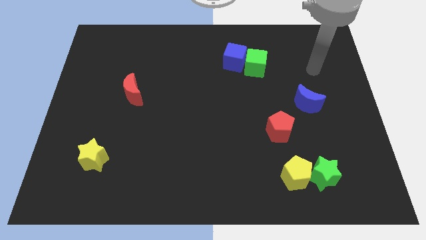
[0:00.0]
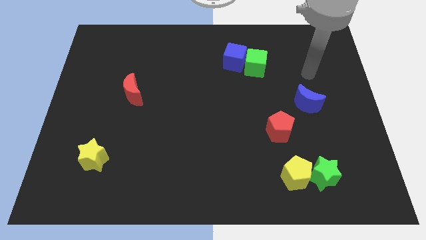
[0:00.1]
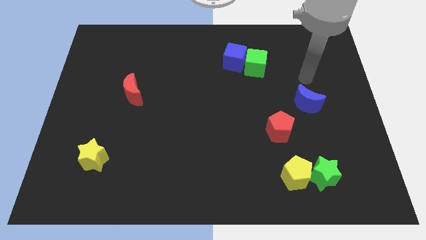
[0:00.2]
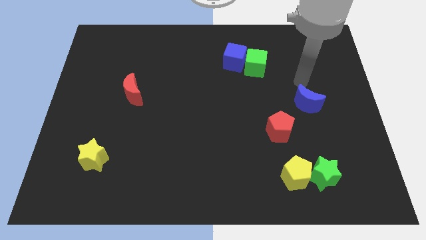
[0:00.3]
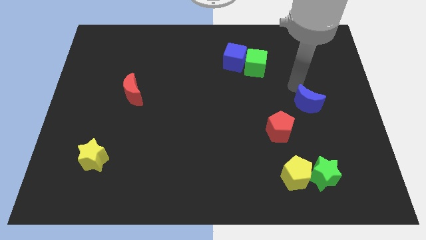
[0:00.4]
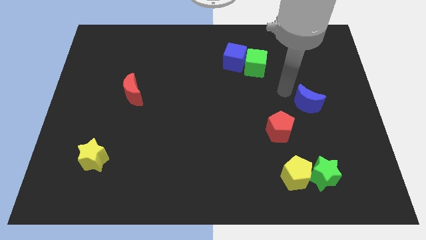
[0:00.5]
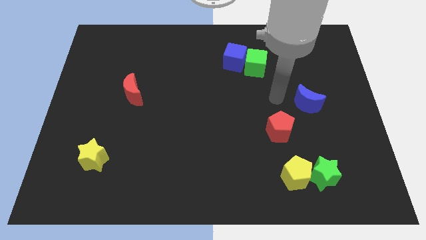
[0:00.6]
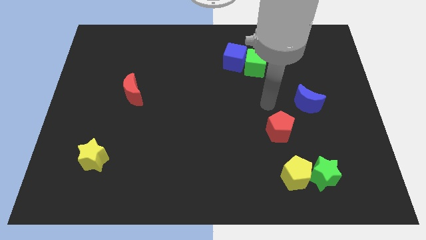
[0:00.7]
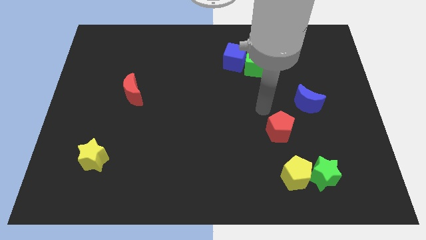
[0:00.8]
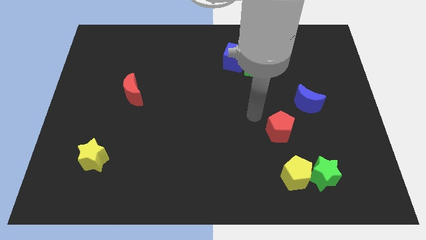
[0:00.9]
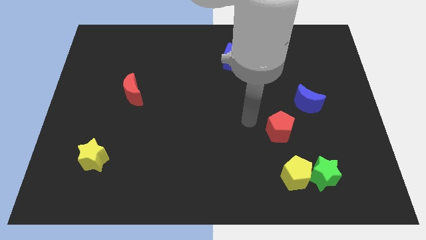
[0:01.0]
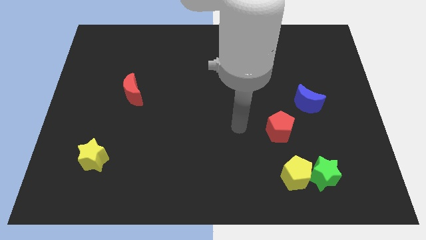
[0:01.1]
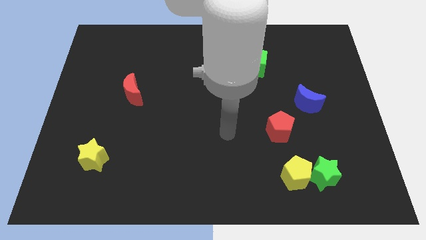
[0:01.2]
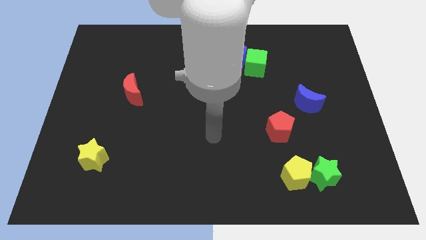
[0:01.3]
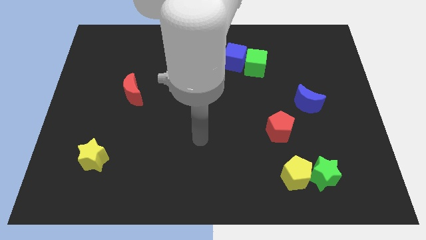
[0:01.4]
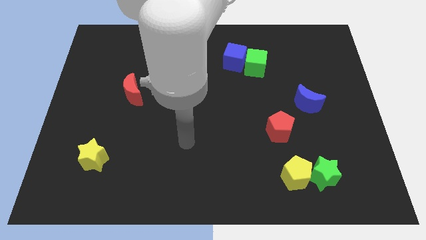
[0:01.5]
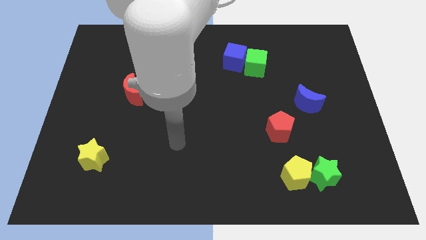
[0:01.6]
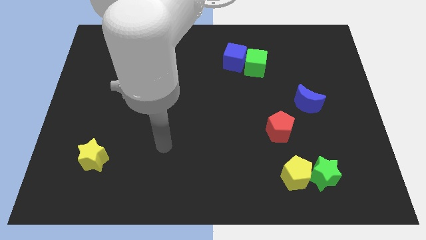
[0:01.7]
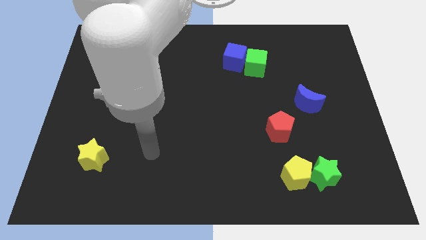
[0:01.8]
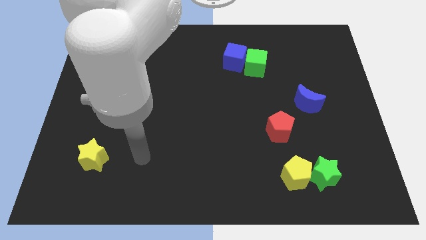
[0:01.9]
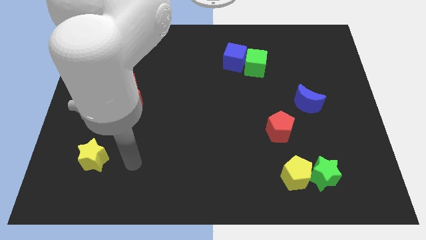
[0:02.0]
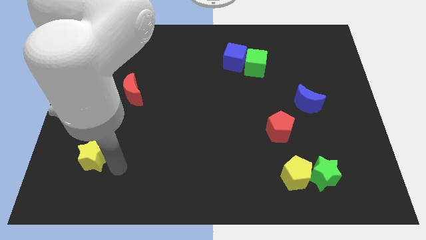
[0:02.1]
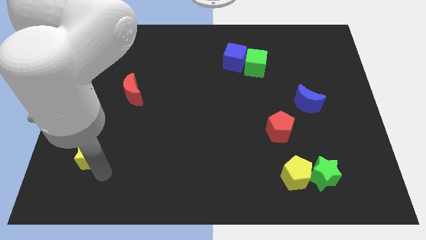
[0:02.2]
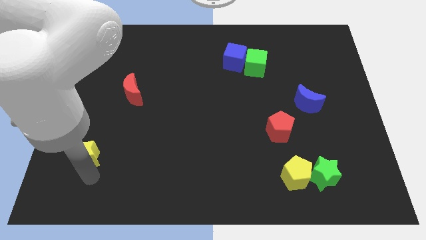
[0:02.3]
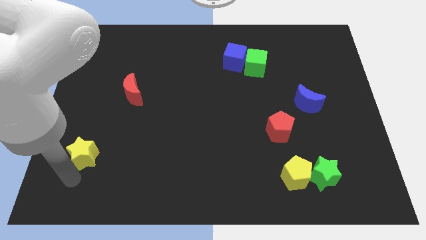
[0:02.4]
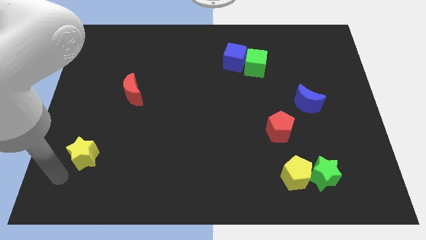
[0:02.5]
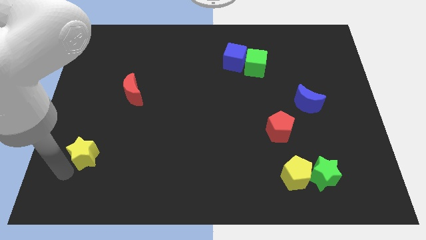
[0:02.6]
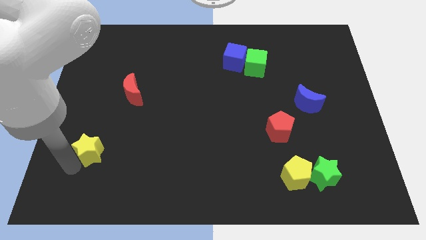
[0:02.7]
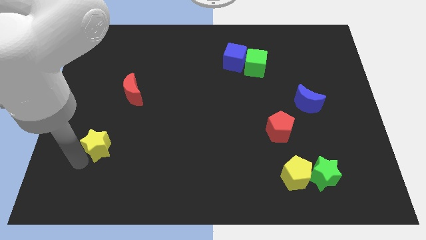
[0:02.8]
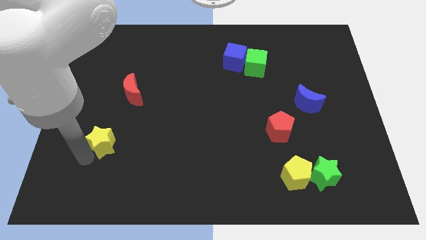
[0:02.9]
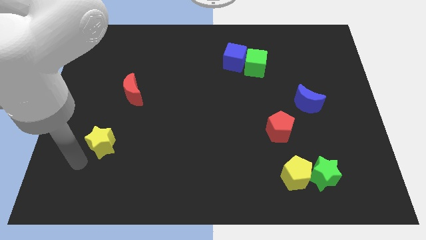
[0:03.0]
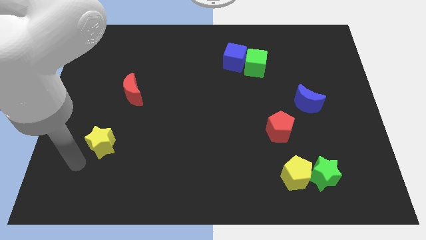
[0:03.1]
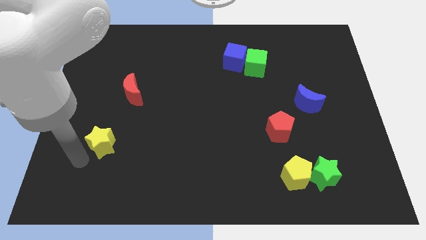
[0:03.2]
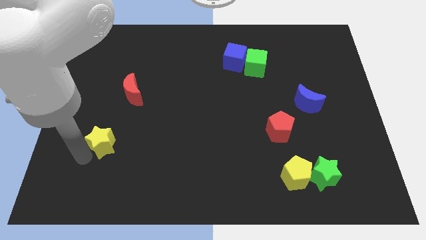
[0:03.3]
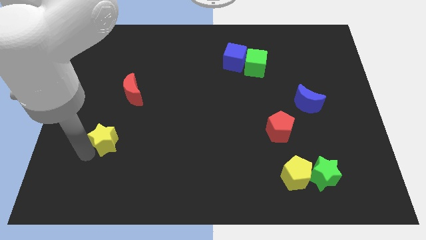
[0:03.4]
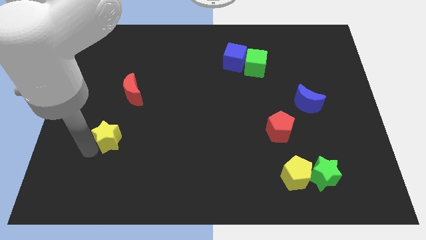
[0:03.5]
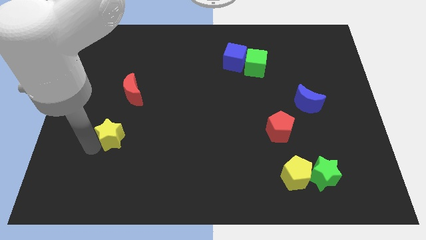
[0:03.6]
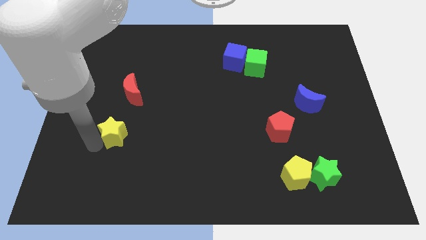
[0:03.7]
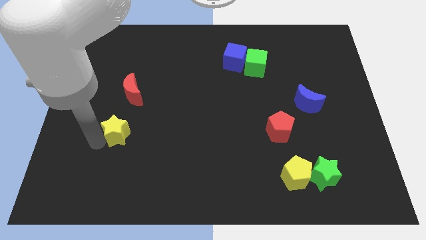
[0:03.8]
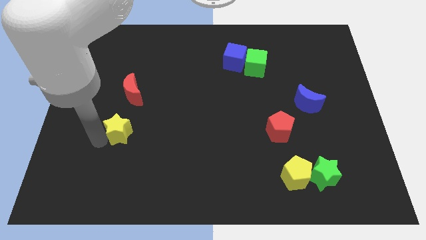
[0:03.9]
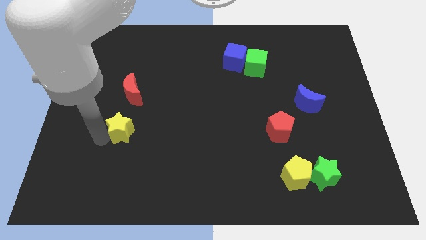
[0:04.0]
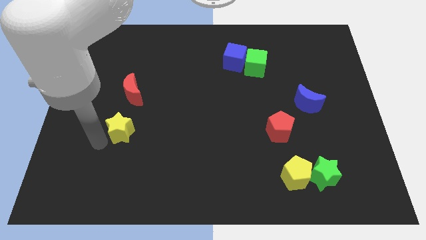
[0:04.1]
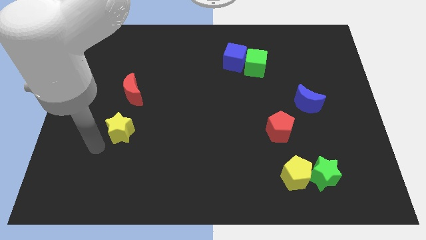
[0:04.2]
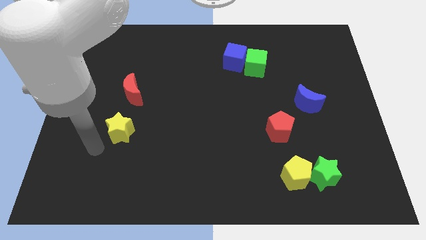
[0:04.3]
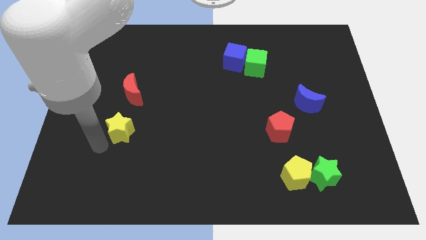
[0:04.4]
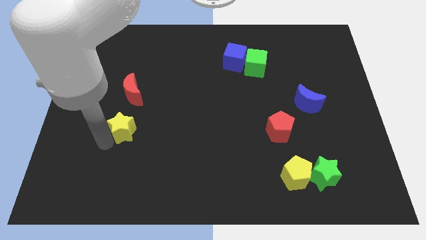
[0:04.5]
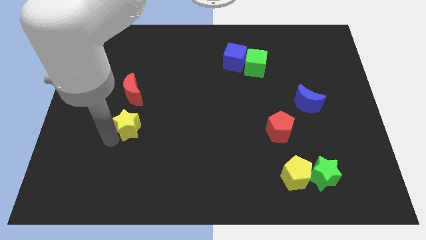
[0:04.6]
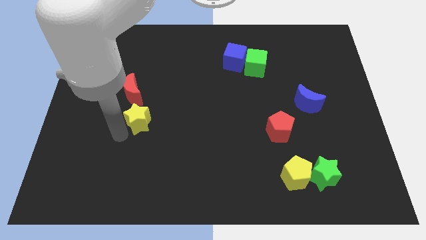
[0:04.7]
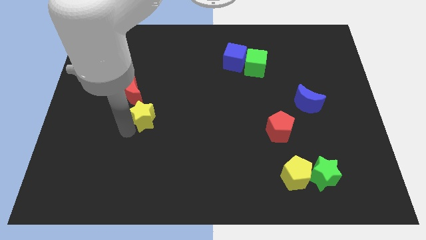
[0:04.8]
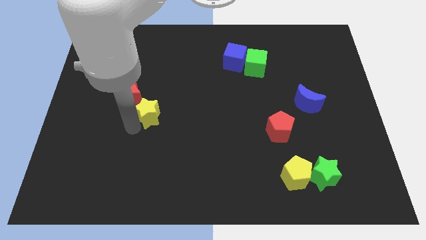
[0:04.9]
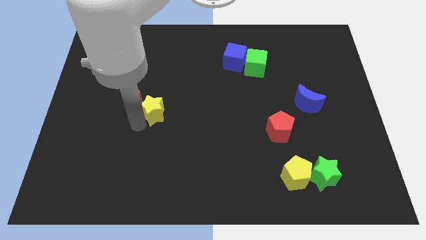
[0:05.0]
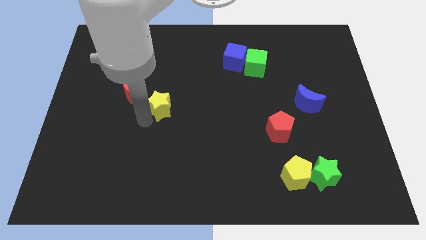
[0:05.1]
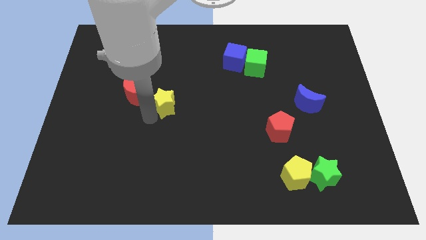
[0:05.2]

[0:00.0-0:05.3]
push the yellow star upwards and to the right

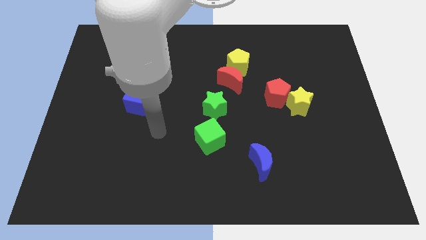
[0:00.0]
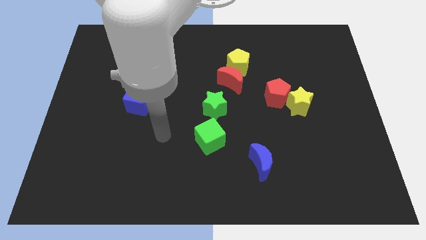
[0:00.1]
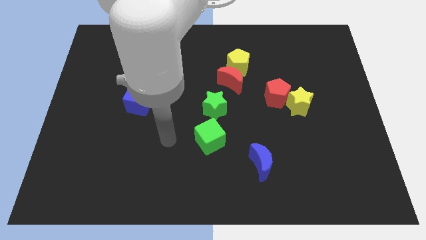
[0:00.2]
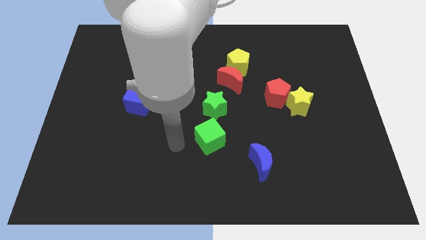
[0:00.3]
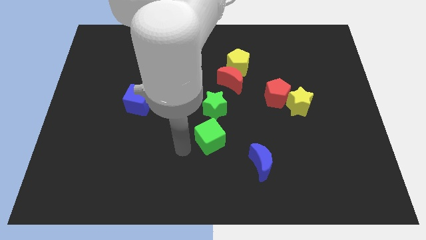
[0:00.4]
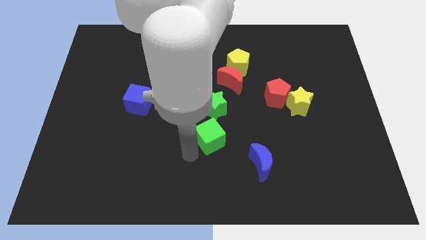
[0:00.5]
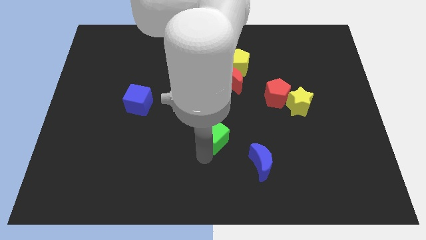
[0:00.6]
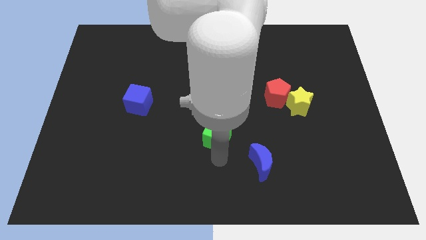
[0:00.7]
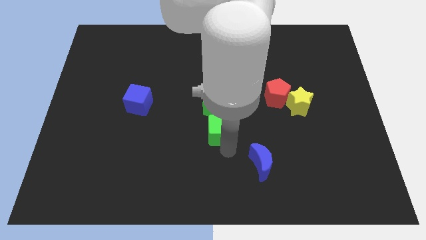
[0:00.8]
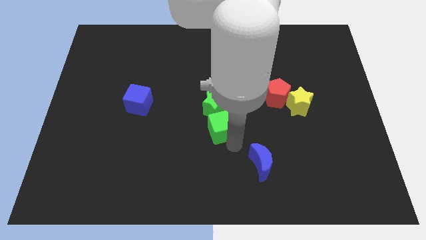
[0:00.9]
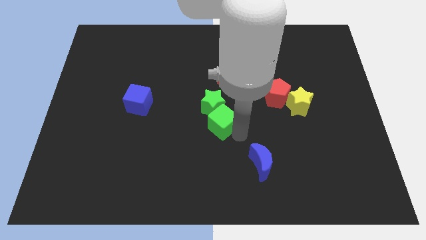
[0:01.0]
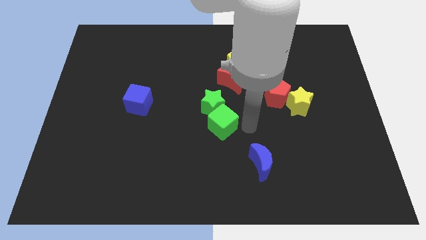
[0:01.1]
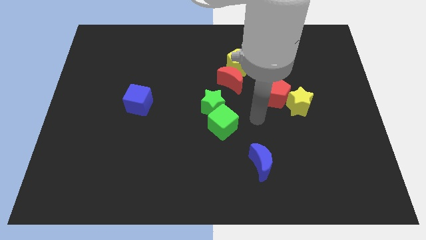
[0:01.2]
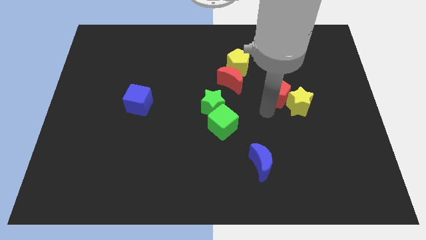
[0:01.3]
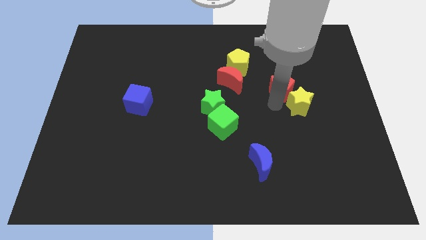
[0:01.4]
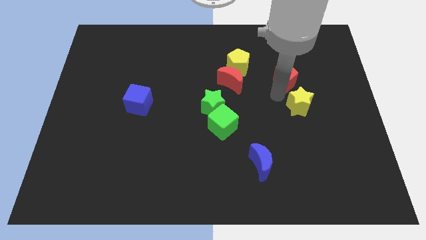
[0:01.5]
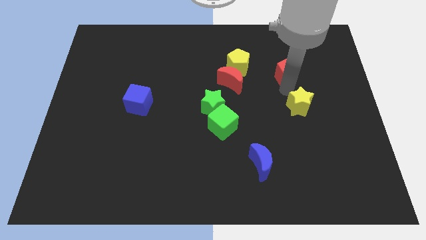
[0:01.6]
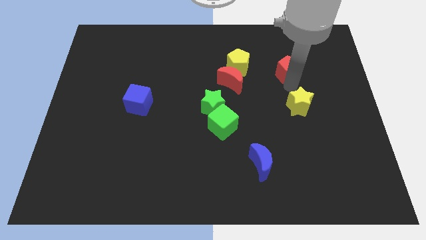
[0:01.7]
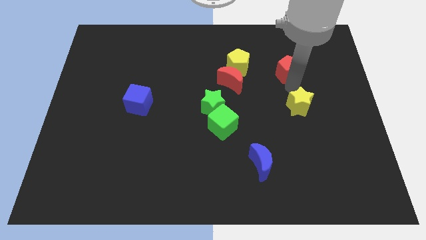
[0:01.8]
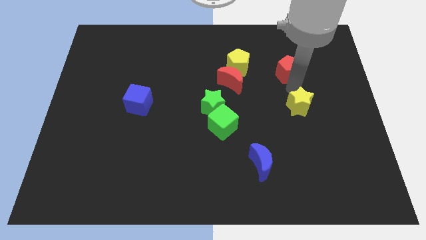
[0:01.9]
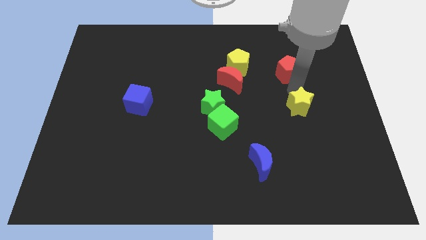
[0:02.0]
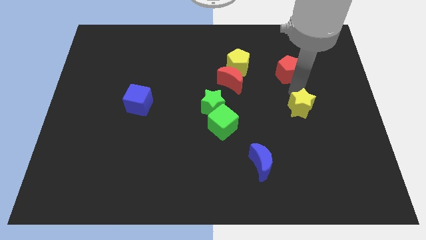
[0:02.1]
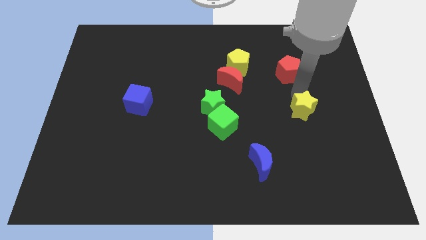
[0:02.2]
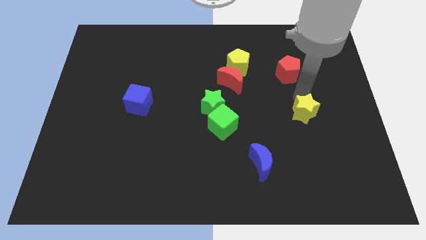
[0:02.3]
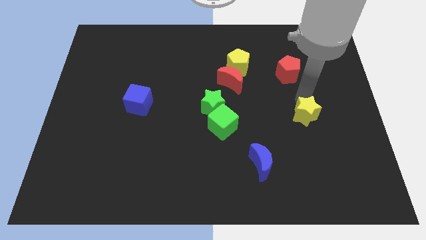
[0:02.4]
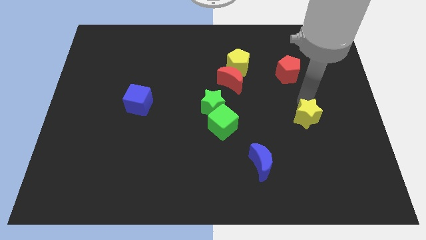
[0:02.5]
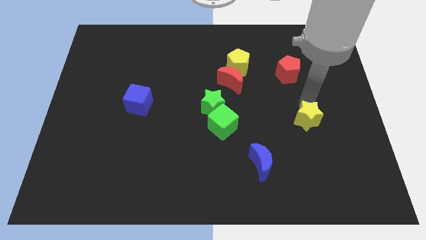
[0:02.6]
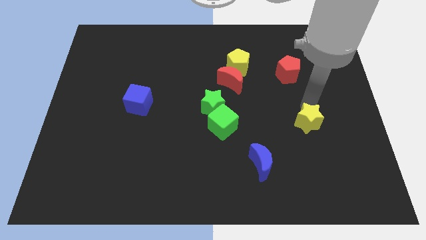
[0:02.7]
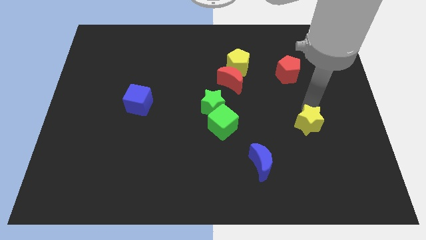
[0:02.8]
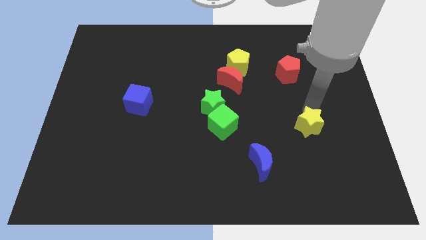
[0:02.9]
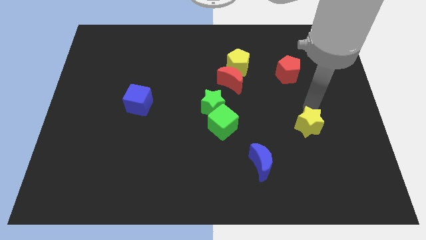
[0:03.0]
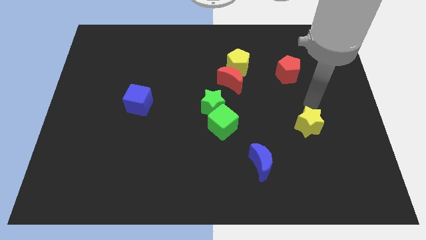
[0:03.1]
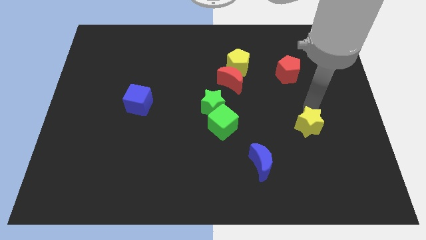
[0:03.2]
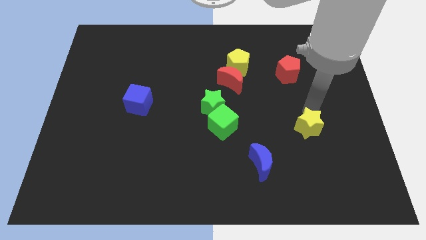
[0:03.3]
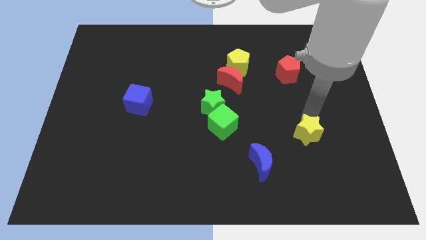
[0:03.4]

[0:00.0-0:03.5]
slide the yellow star a little bit downwards
